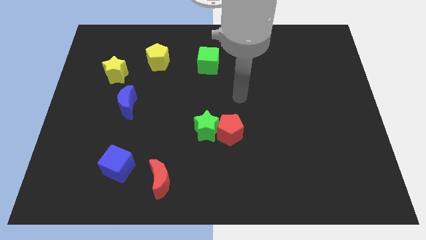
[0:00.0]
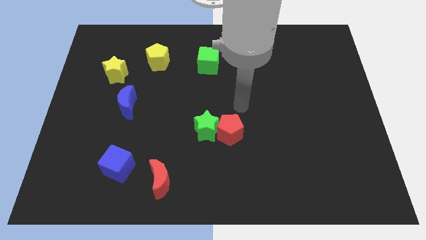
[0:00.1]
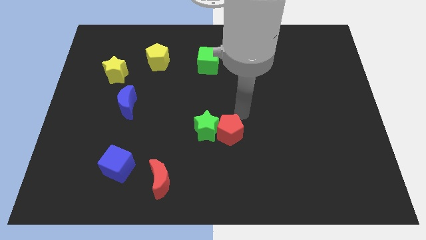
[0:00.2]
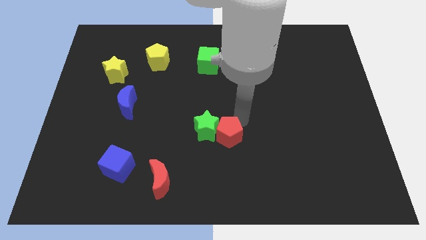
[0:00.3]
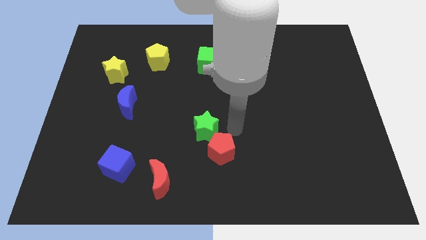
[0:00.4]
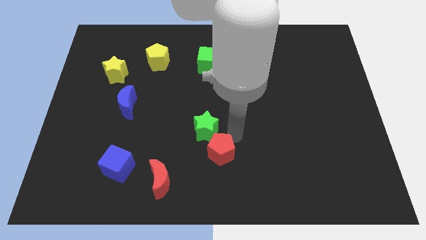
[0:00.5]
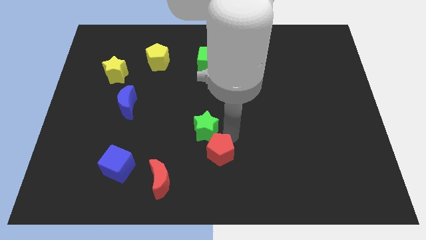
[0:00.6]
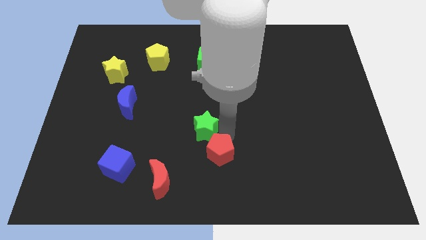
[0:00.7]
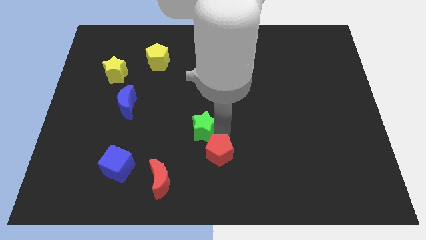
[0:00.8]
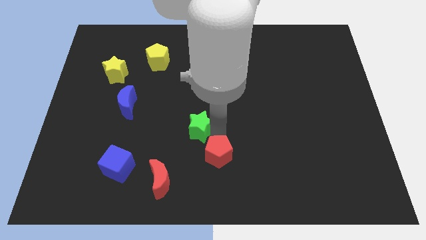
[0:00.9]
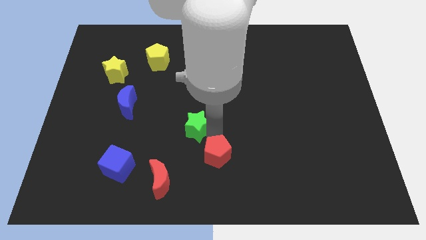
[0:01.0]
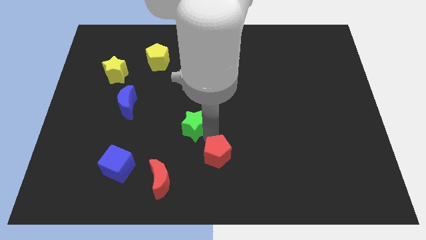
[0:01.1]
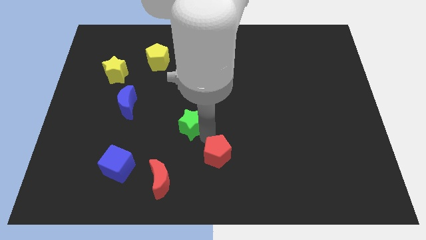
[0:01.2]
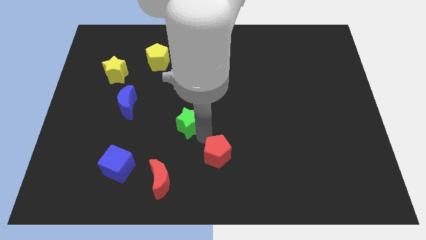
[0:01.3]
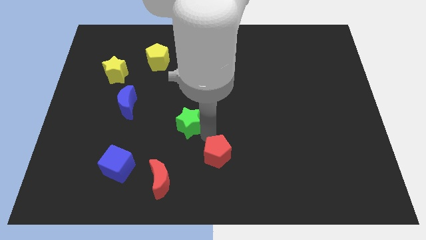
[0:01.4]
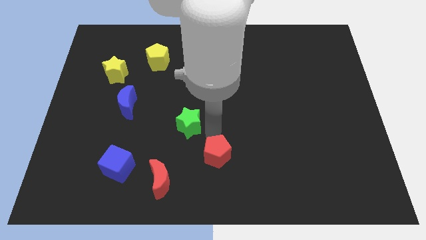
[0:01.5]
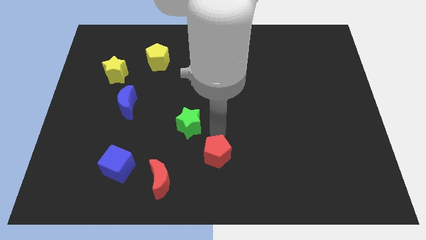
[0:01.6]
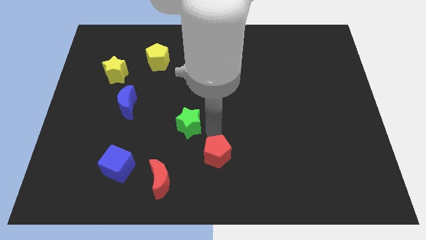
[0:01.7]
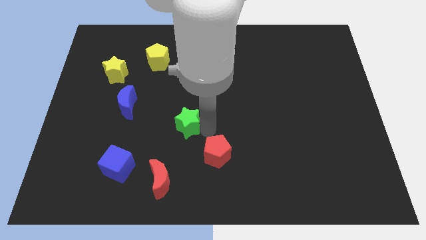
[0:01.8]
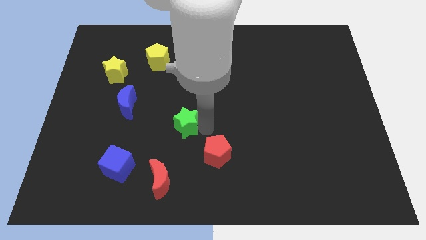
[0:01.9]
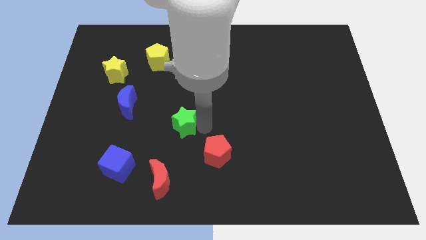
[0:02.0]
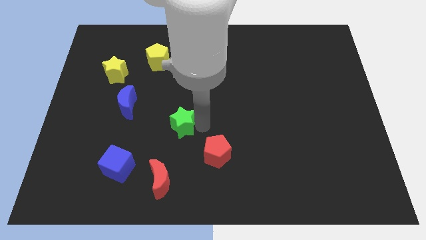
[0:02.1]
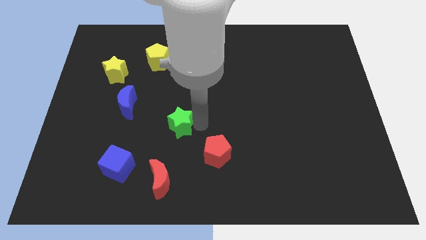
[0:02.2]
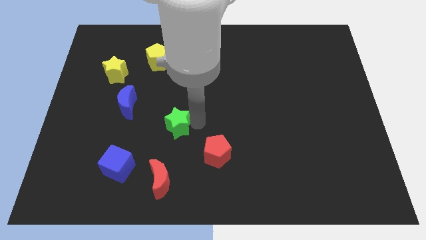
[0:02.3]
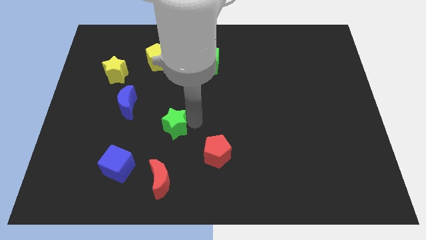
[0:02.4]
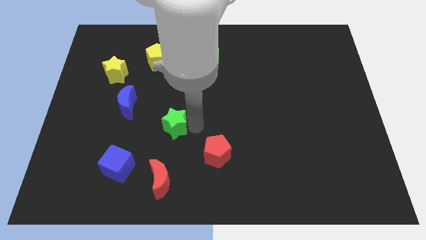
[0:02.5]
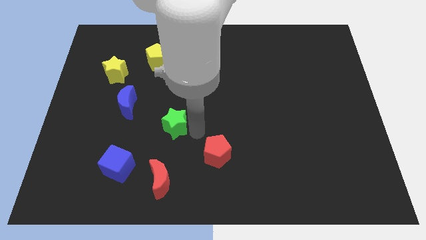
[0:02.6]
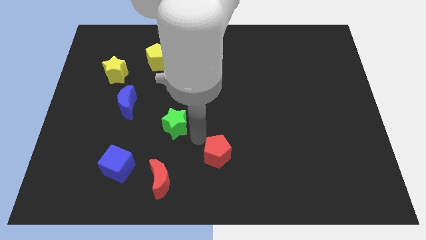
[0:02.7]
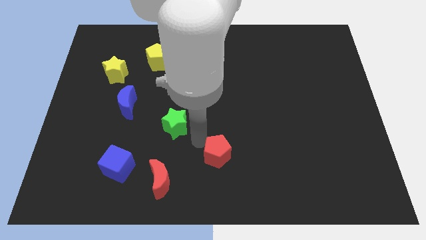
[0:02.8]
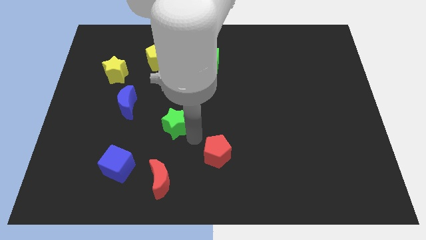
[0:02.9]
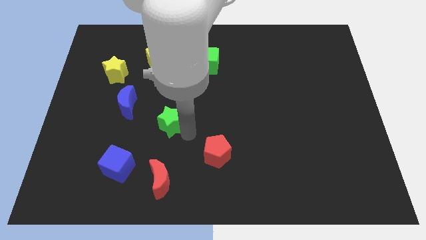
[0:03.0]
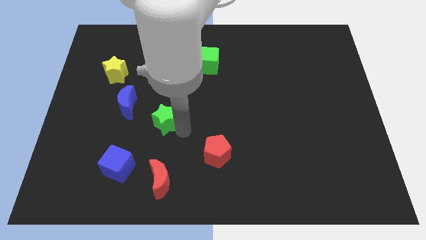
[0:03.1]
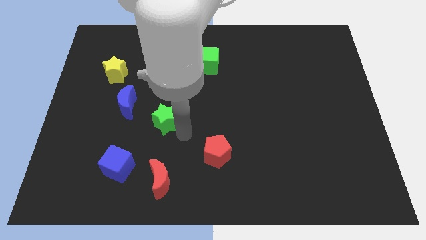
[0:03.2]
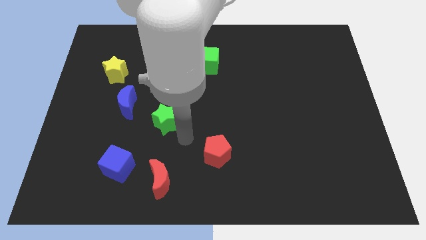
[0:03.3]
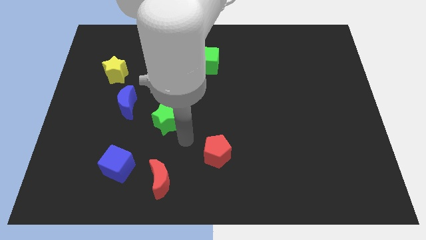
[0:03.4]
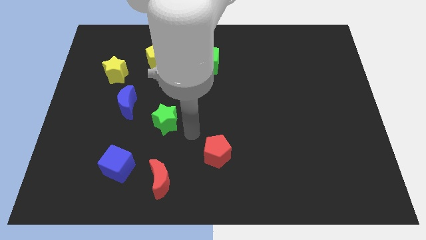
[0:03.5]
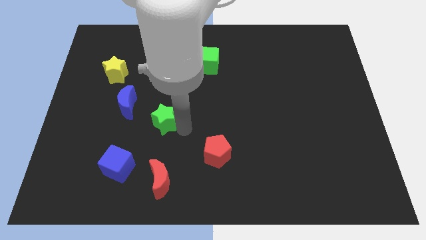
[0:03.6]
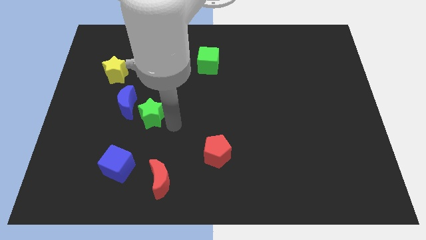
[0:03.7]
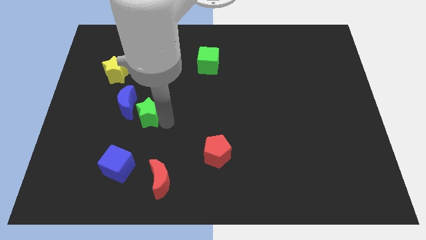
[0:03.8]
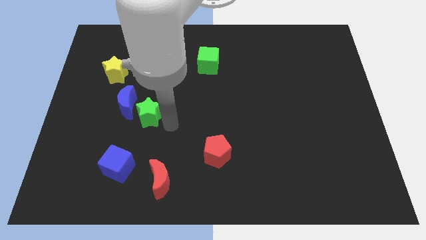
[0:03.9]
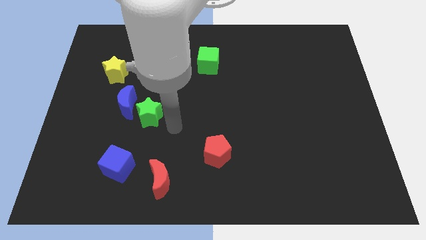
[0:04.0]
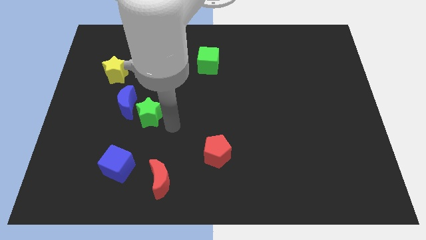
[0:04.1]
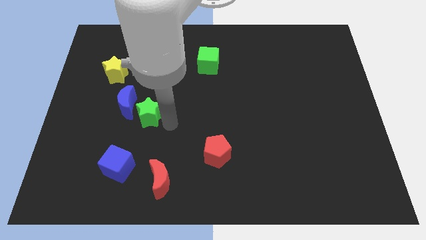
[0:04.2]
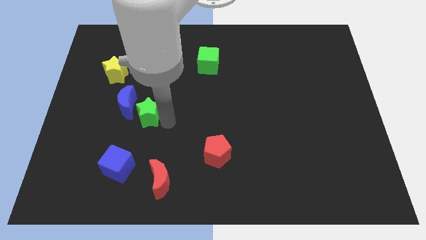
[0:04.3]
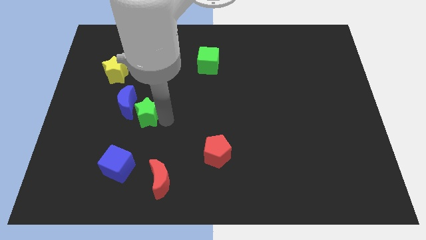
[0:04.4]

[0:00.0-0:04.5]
push the green star to the blue moon

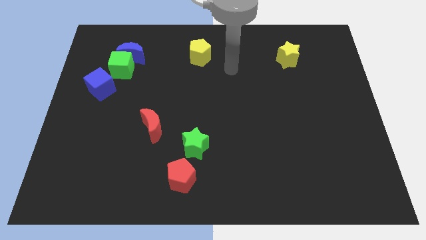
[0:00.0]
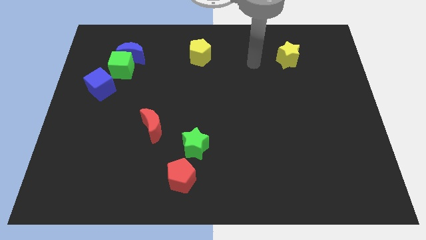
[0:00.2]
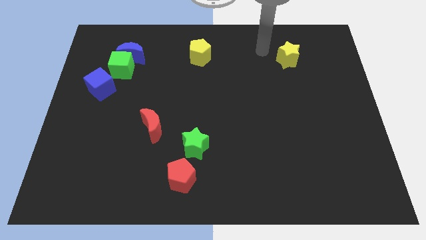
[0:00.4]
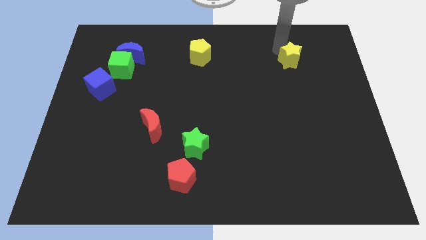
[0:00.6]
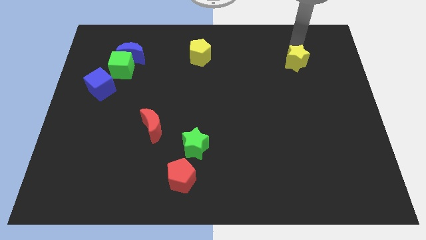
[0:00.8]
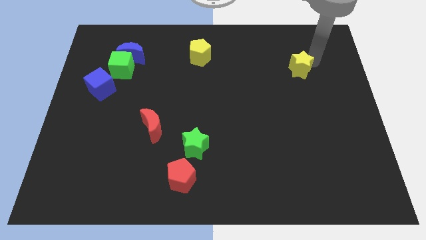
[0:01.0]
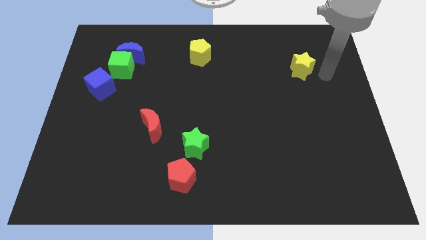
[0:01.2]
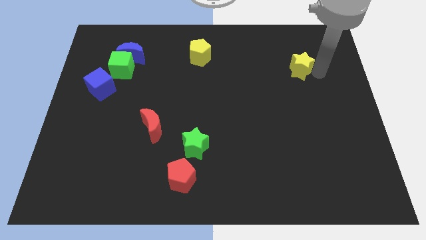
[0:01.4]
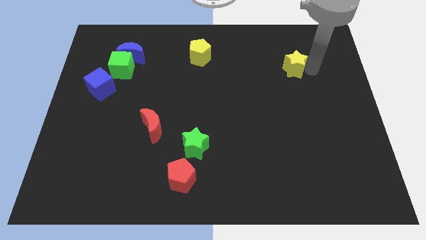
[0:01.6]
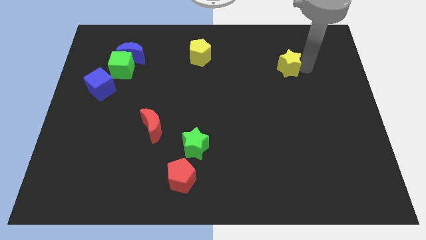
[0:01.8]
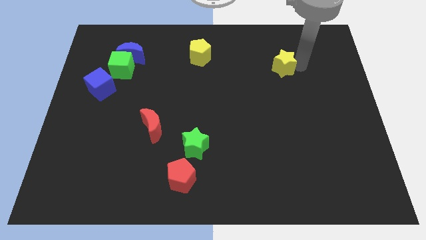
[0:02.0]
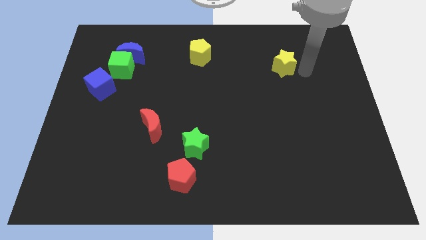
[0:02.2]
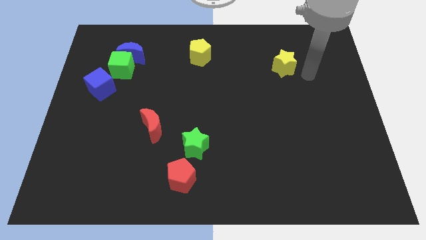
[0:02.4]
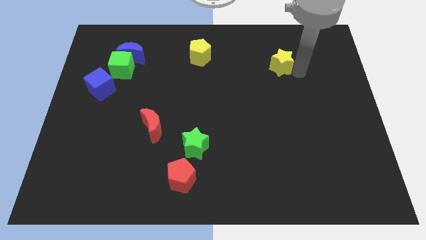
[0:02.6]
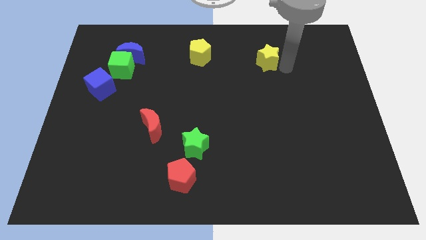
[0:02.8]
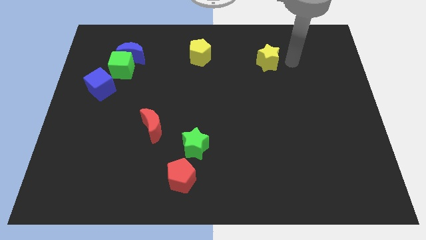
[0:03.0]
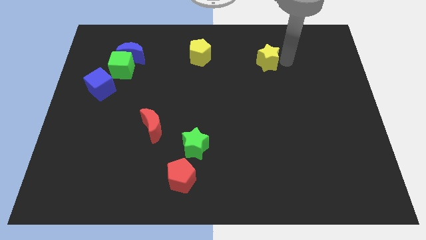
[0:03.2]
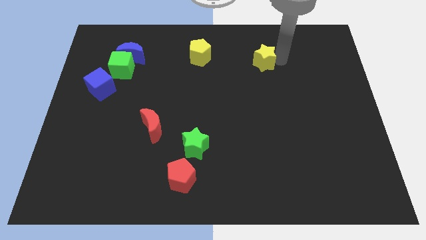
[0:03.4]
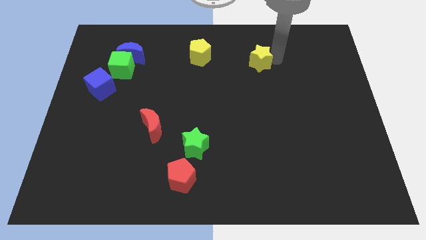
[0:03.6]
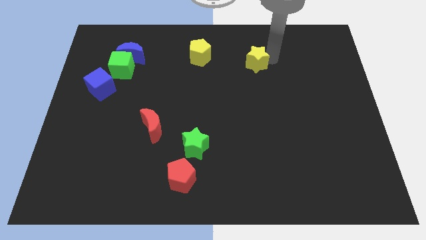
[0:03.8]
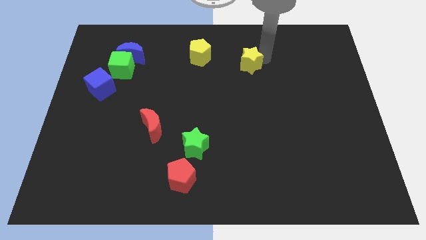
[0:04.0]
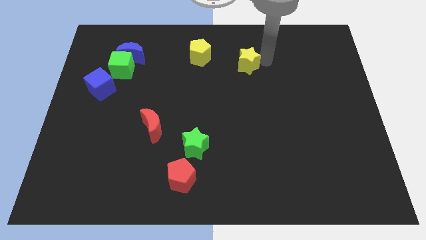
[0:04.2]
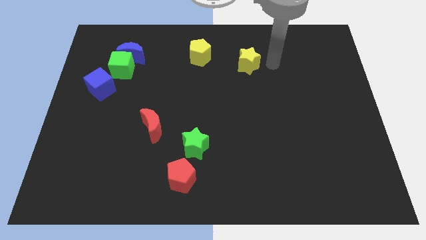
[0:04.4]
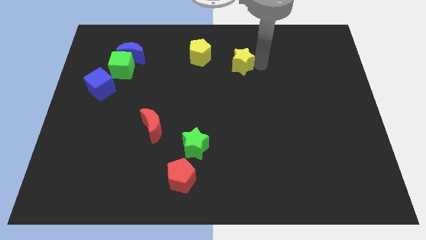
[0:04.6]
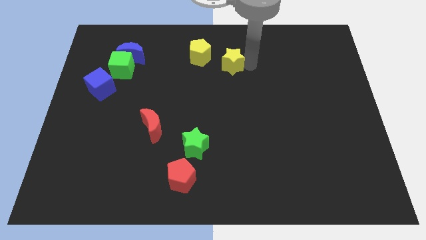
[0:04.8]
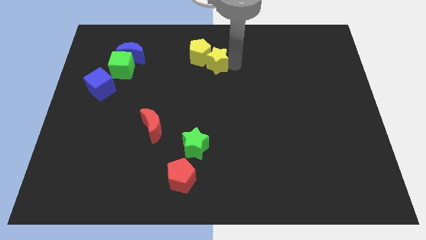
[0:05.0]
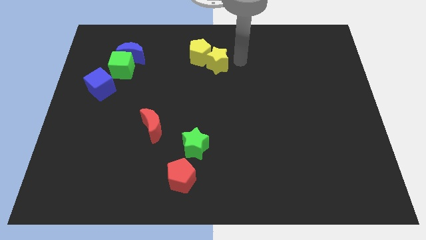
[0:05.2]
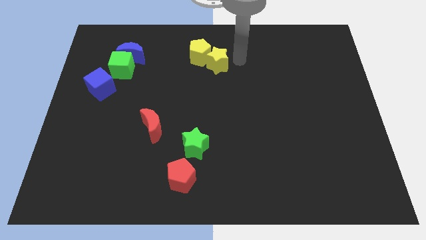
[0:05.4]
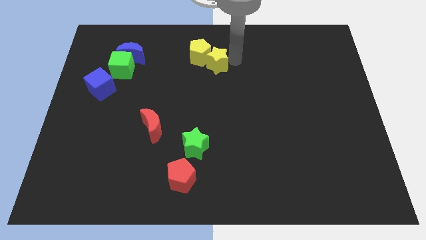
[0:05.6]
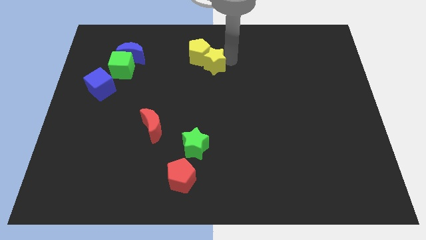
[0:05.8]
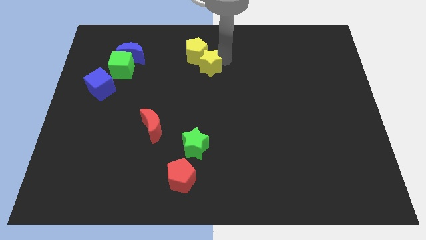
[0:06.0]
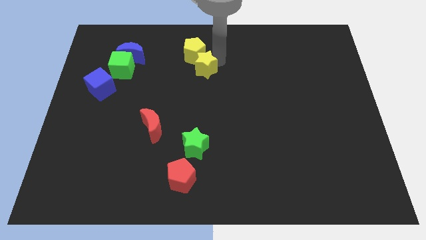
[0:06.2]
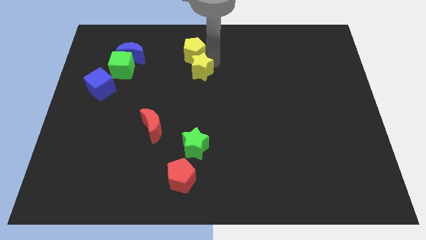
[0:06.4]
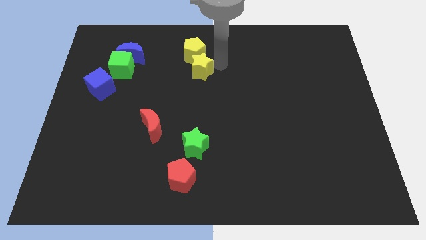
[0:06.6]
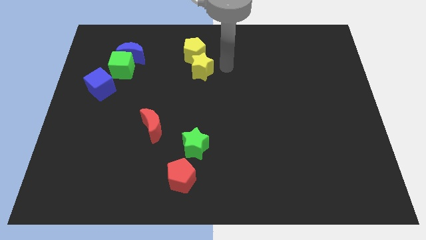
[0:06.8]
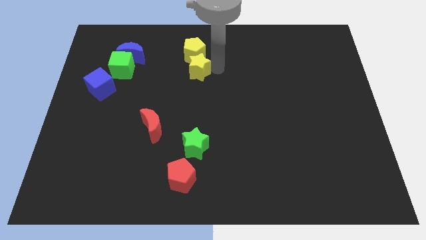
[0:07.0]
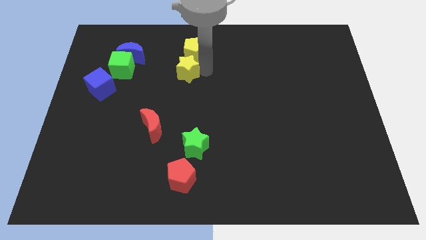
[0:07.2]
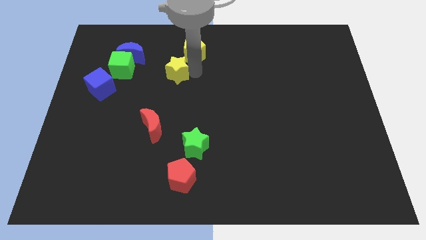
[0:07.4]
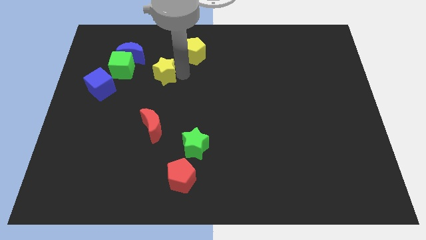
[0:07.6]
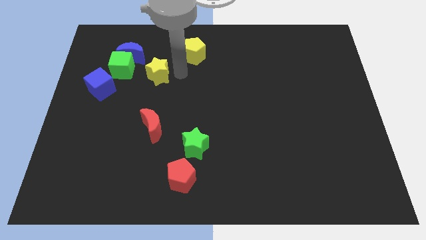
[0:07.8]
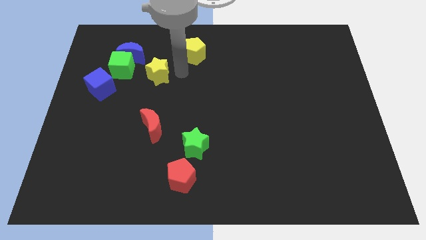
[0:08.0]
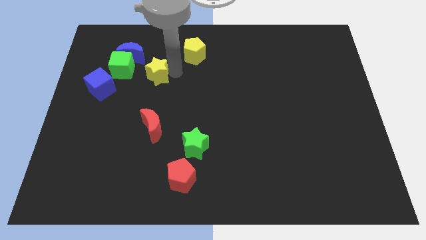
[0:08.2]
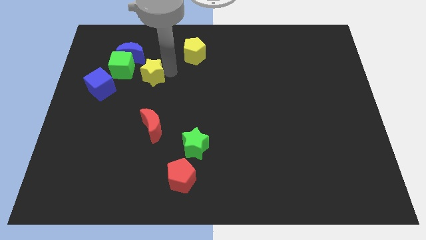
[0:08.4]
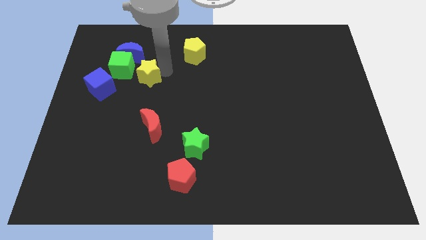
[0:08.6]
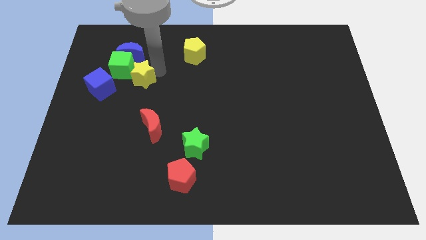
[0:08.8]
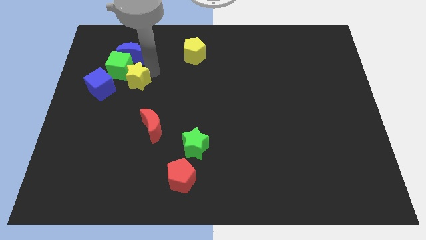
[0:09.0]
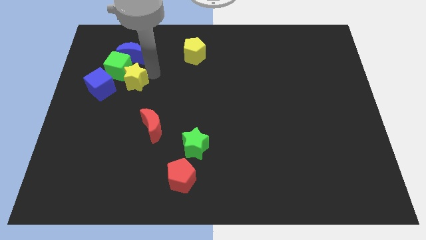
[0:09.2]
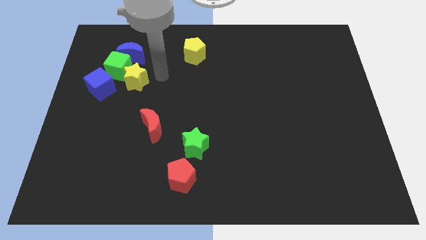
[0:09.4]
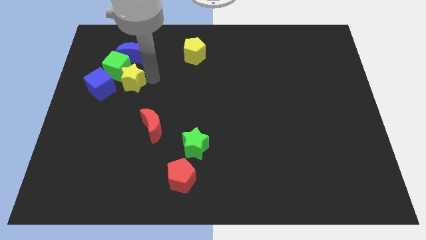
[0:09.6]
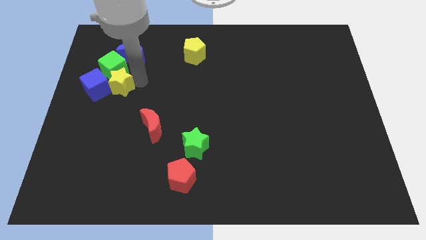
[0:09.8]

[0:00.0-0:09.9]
put the yellow star towards the blue cube
